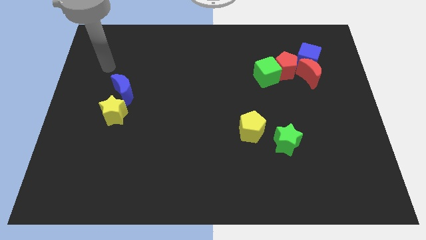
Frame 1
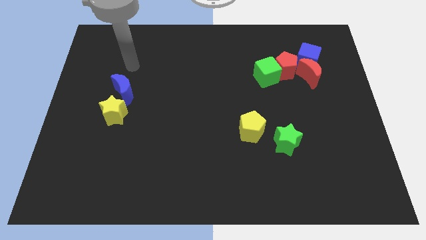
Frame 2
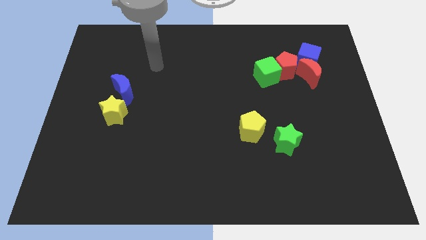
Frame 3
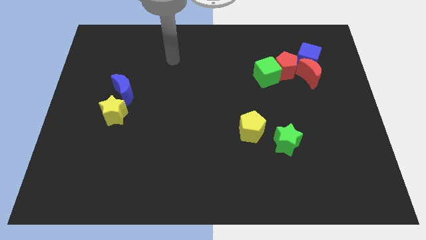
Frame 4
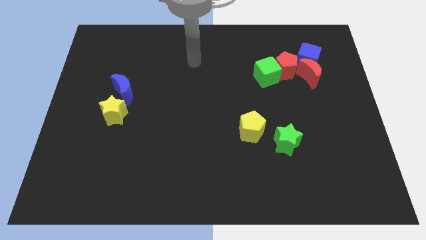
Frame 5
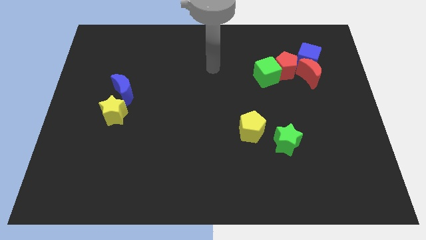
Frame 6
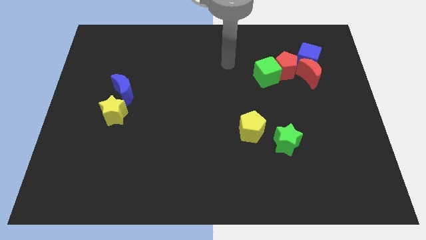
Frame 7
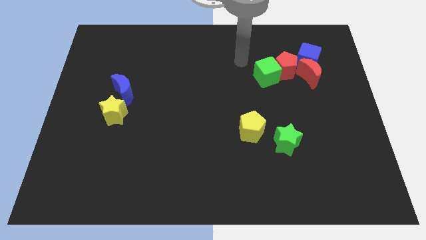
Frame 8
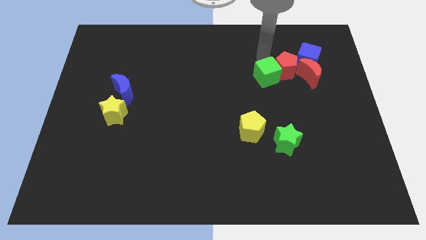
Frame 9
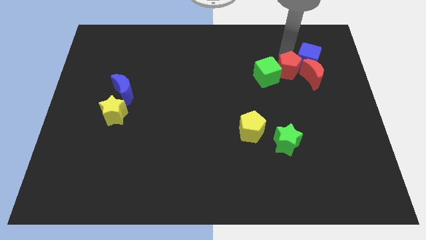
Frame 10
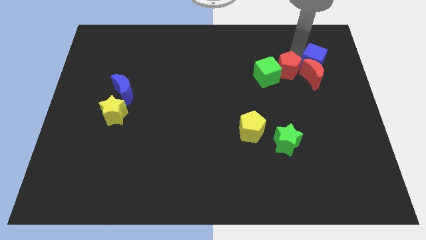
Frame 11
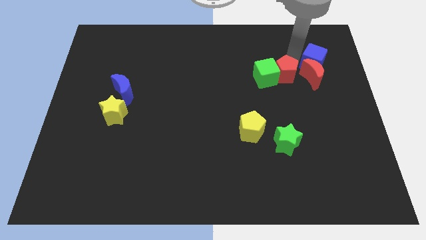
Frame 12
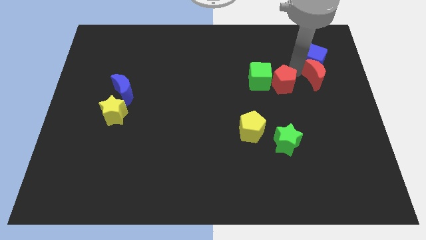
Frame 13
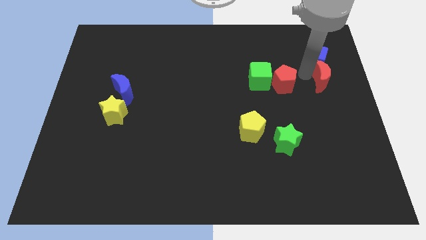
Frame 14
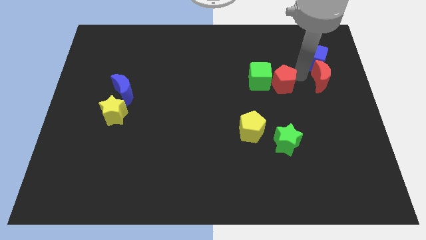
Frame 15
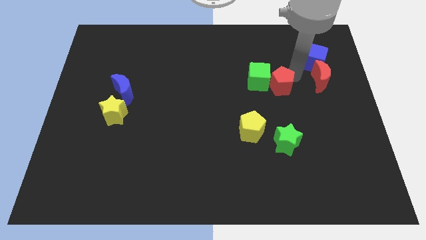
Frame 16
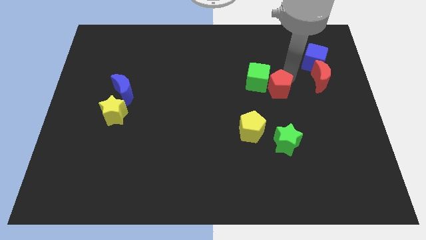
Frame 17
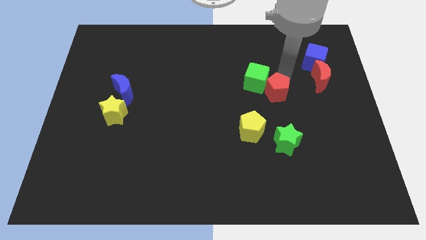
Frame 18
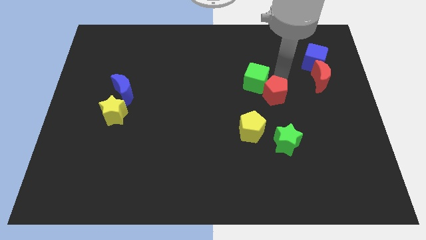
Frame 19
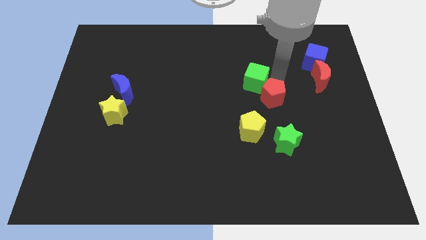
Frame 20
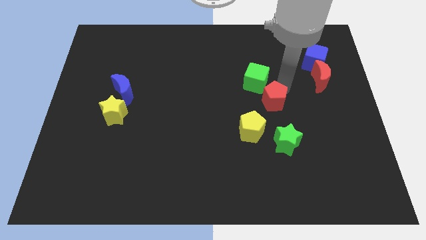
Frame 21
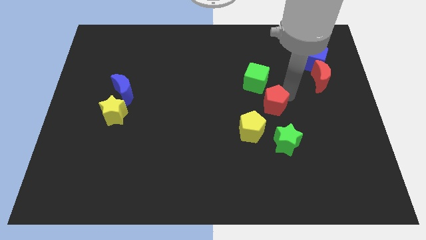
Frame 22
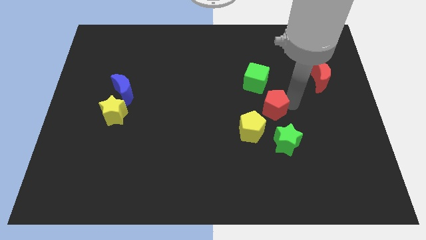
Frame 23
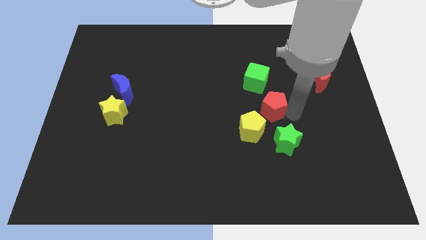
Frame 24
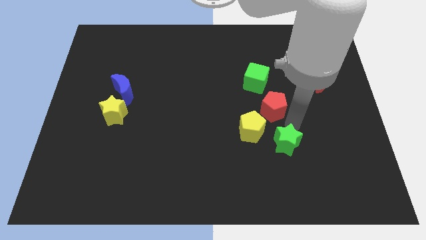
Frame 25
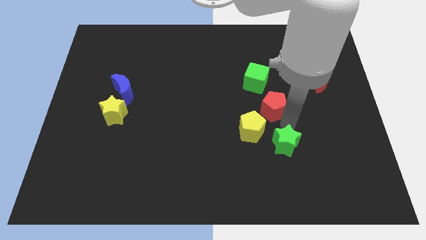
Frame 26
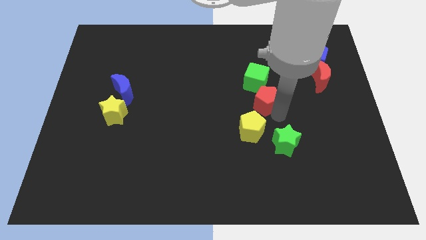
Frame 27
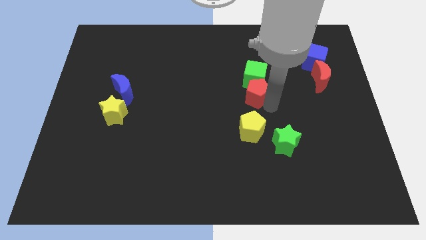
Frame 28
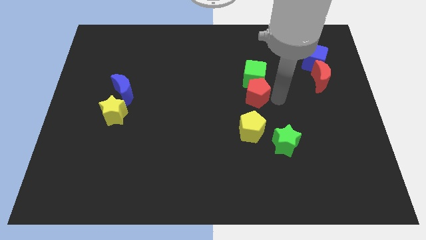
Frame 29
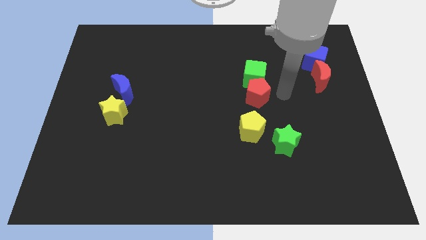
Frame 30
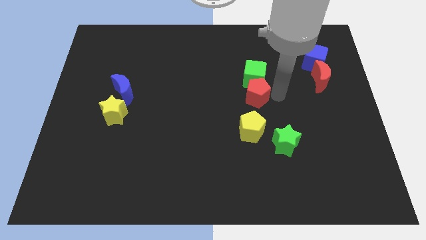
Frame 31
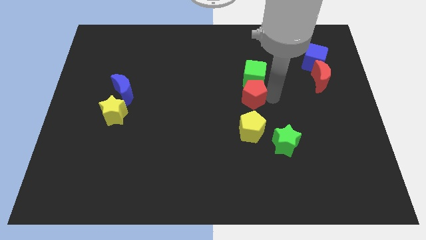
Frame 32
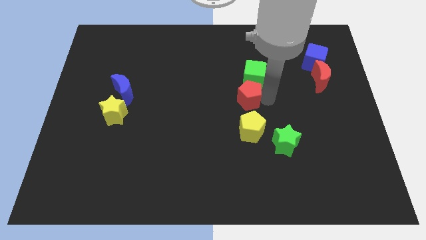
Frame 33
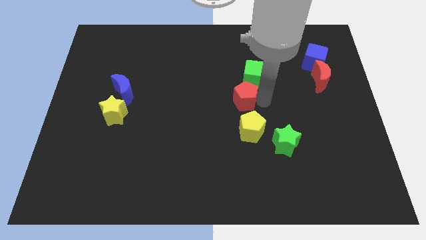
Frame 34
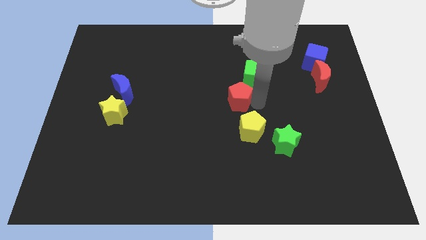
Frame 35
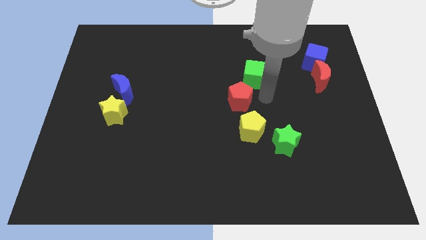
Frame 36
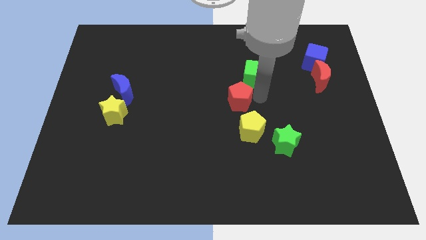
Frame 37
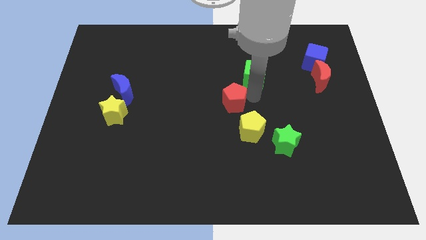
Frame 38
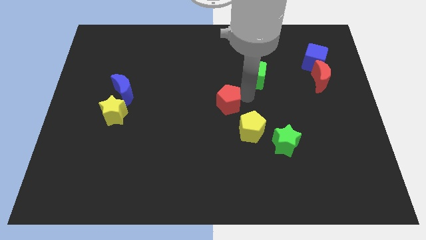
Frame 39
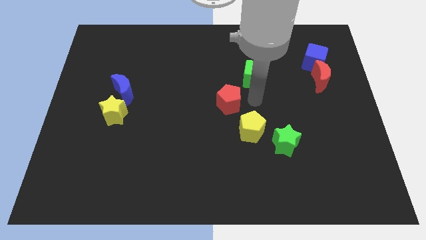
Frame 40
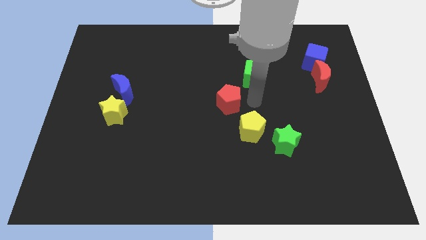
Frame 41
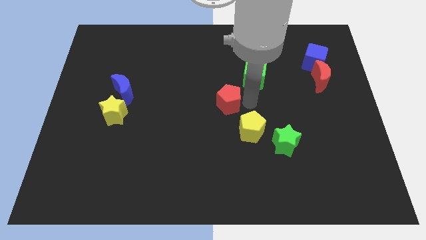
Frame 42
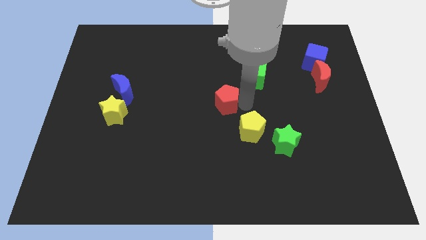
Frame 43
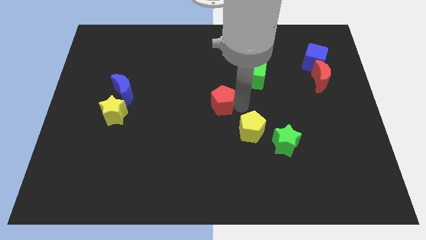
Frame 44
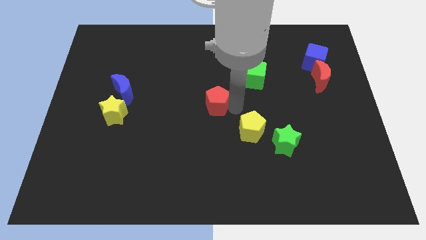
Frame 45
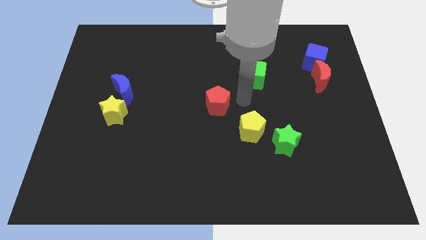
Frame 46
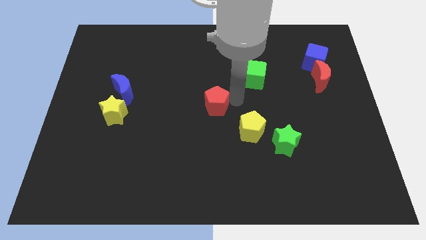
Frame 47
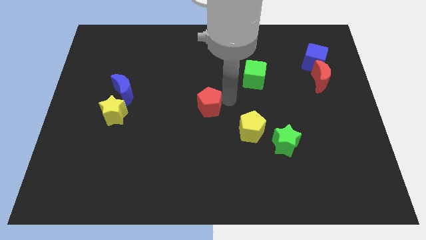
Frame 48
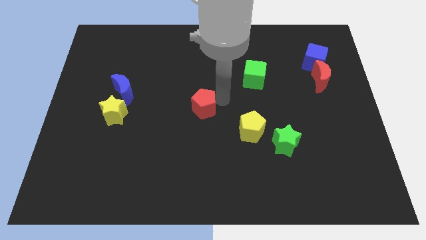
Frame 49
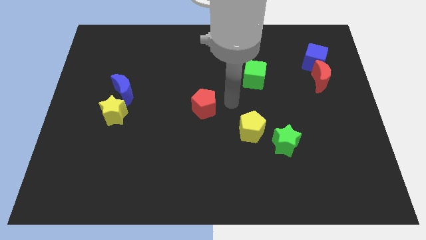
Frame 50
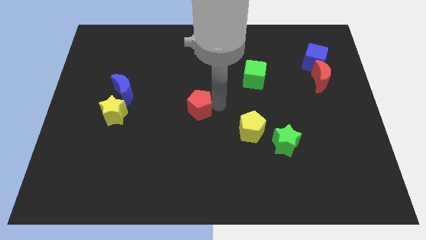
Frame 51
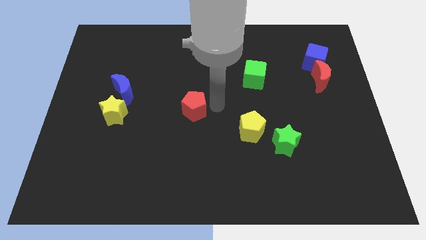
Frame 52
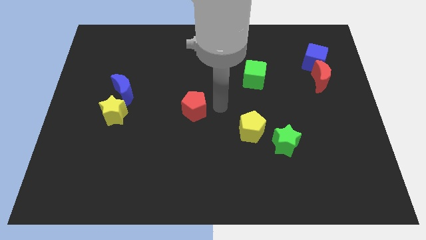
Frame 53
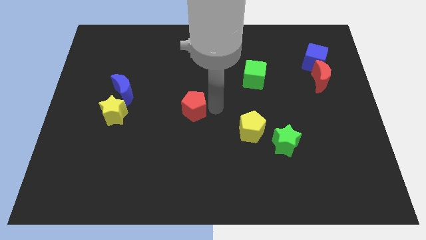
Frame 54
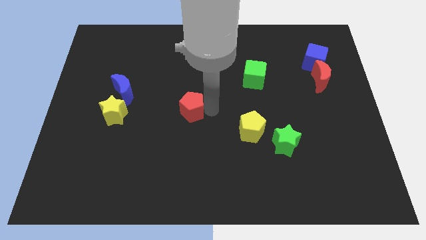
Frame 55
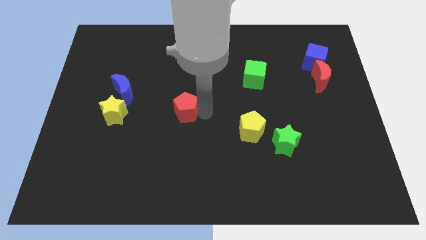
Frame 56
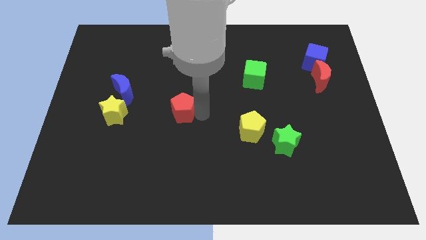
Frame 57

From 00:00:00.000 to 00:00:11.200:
push the red pentagon just right of the yellow star

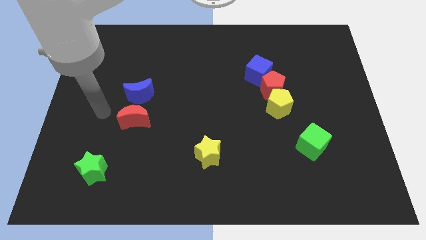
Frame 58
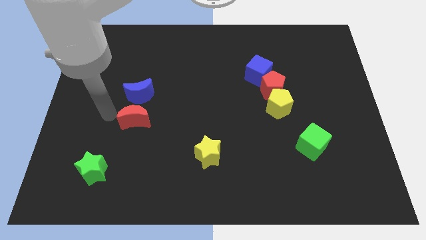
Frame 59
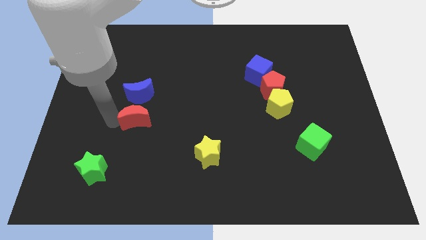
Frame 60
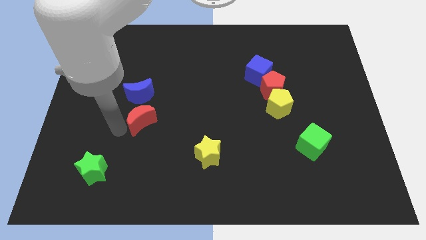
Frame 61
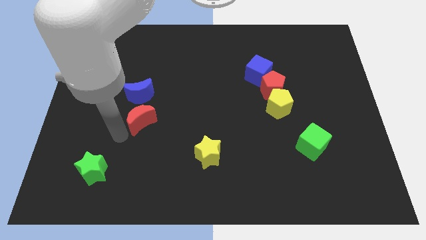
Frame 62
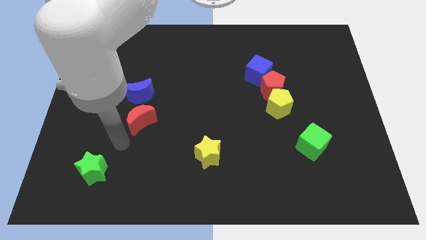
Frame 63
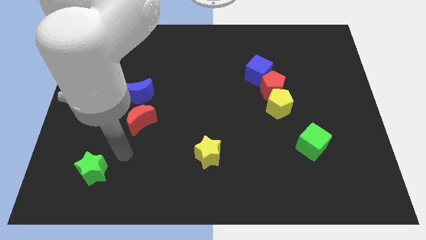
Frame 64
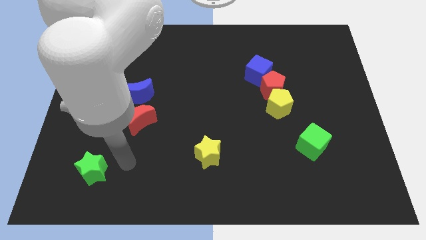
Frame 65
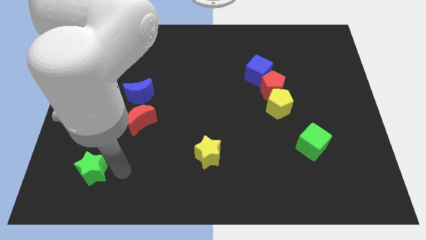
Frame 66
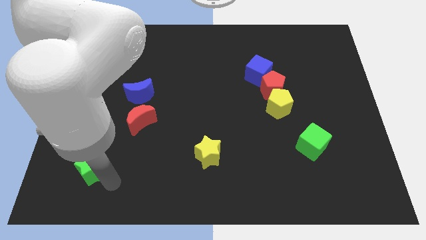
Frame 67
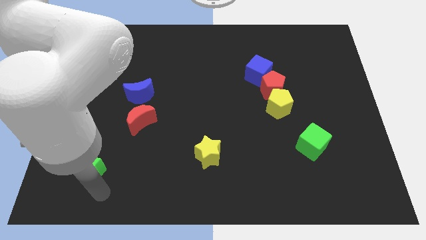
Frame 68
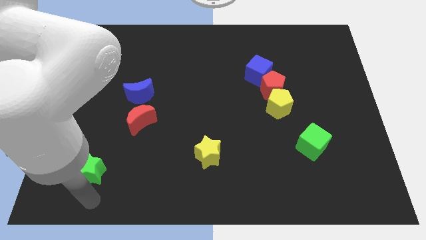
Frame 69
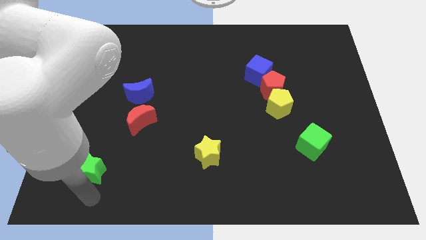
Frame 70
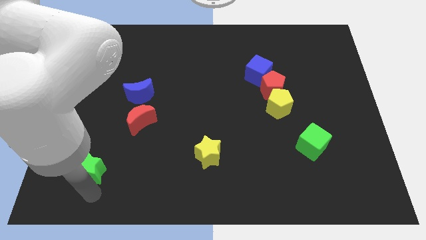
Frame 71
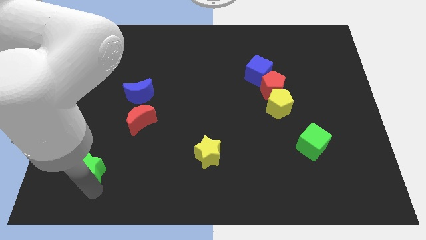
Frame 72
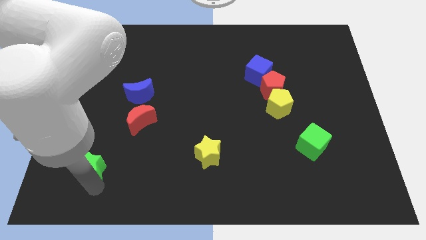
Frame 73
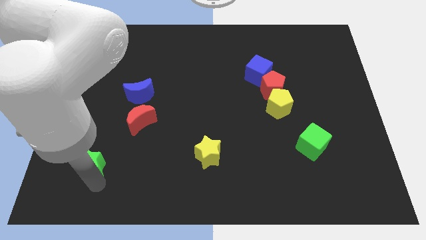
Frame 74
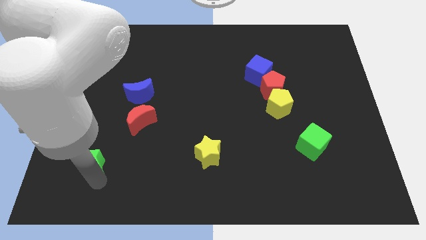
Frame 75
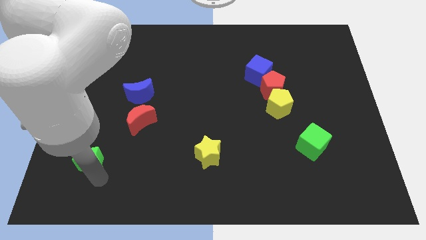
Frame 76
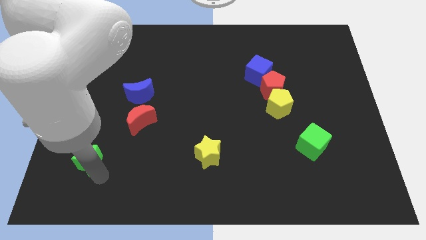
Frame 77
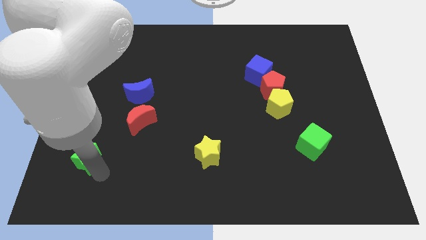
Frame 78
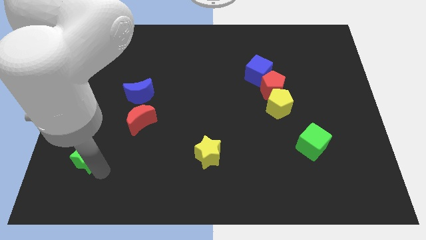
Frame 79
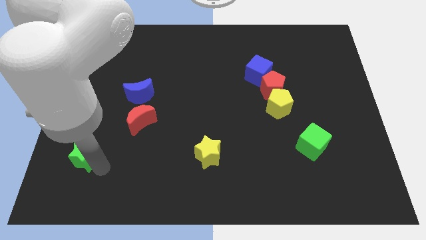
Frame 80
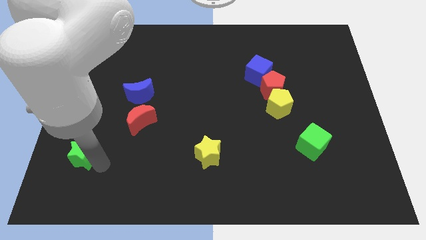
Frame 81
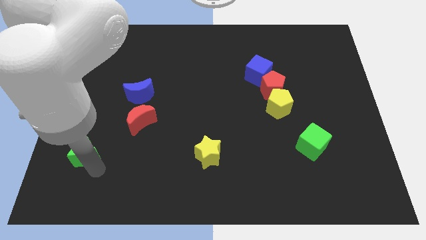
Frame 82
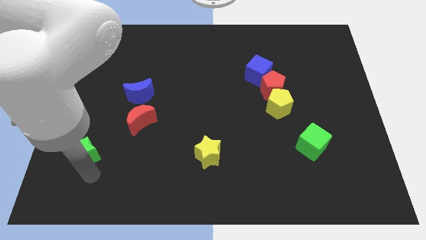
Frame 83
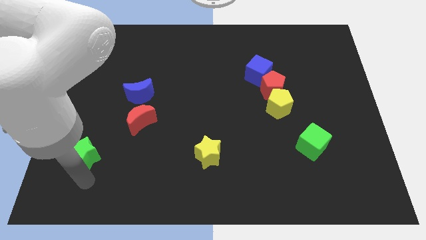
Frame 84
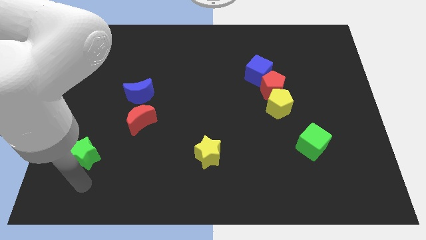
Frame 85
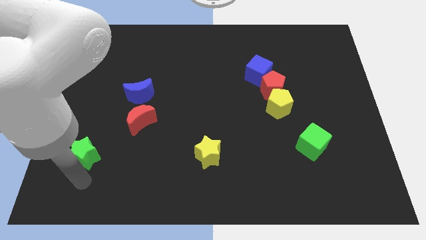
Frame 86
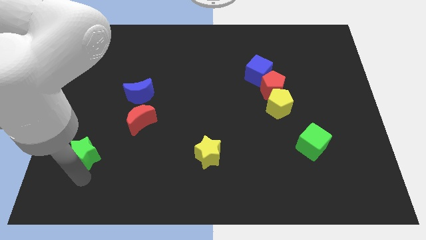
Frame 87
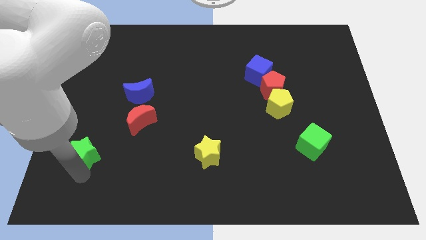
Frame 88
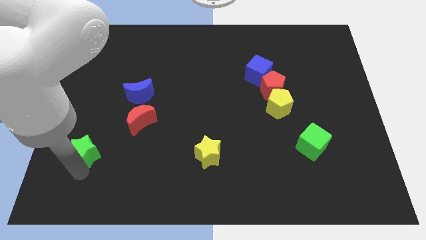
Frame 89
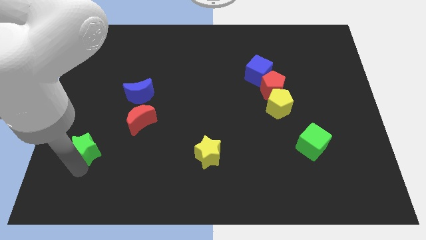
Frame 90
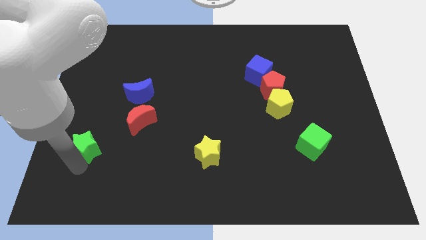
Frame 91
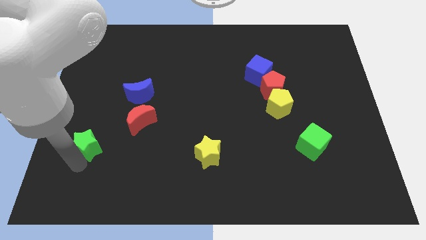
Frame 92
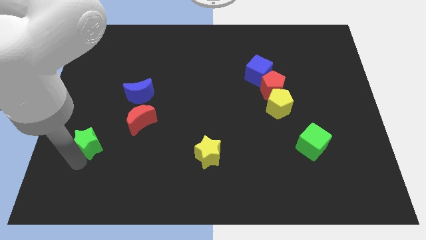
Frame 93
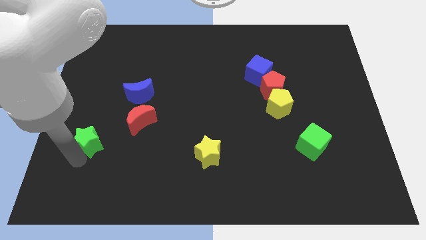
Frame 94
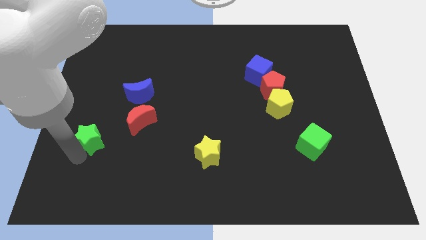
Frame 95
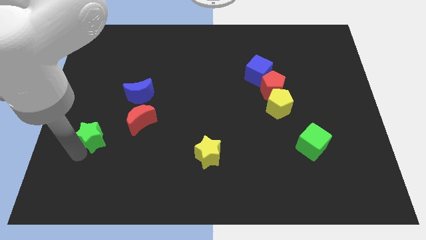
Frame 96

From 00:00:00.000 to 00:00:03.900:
move the green star just left of the red moon
